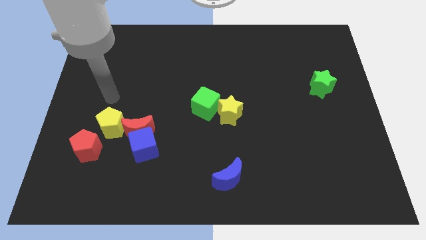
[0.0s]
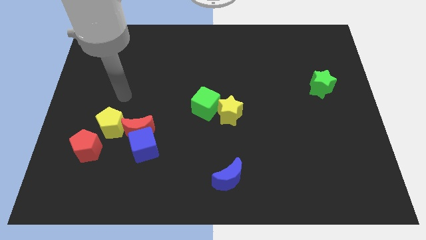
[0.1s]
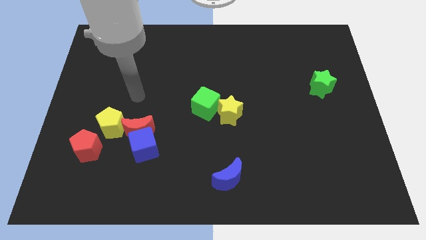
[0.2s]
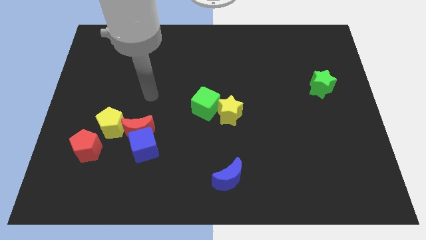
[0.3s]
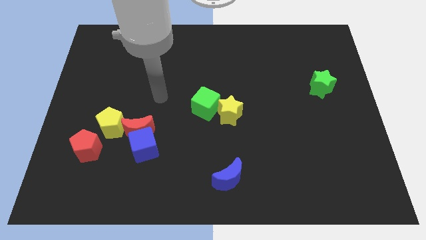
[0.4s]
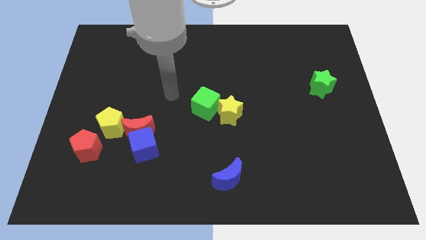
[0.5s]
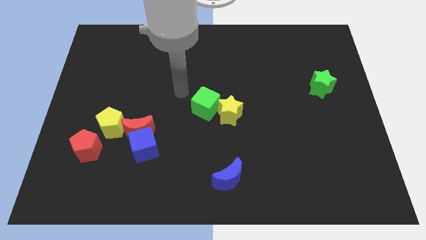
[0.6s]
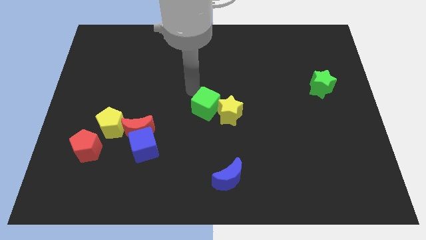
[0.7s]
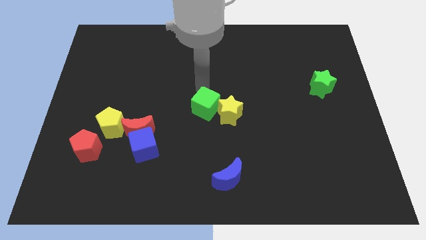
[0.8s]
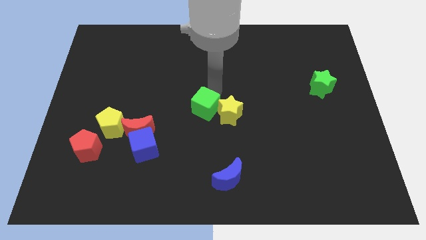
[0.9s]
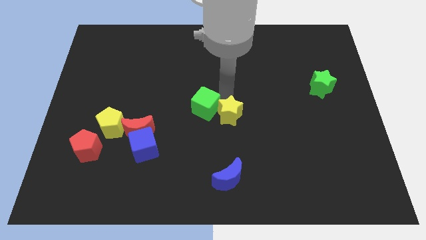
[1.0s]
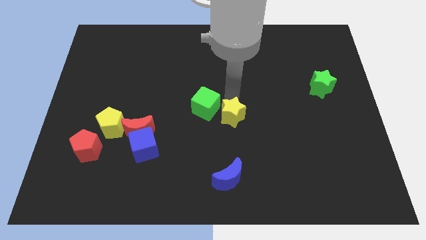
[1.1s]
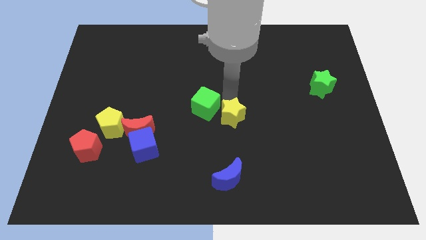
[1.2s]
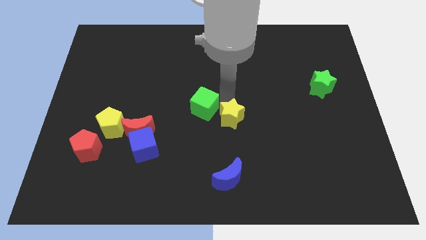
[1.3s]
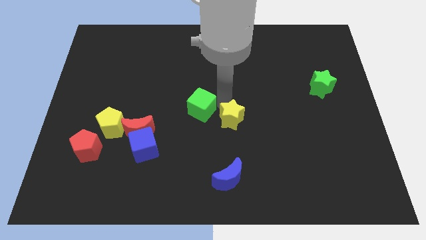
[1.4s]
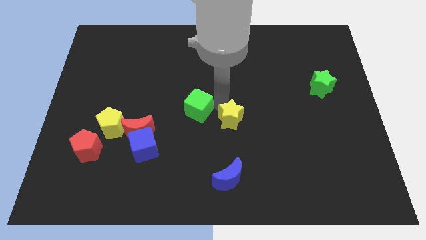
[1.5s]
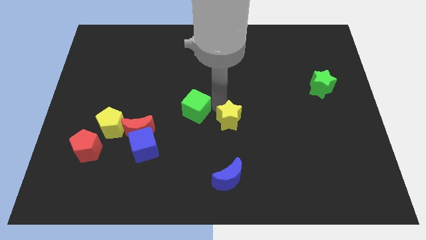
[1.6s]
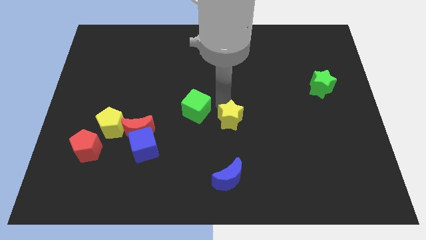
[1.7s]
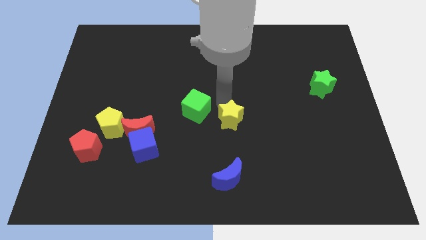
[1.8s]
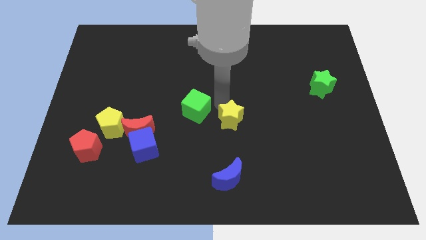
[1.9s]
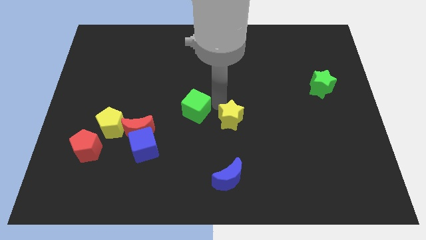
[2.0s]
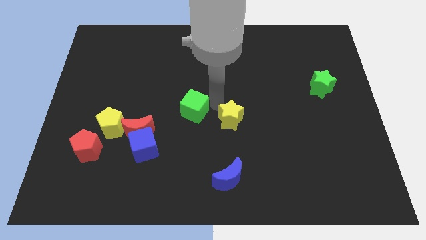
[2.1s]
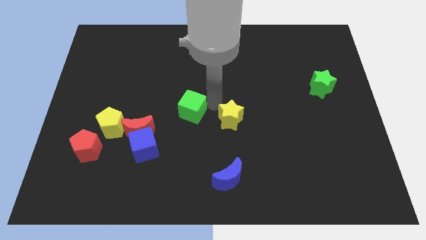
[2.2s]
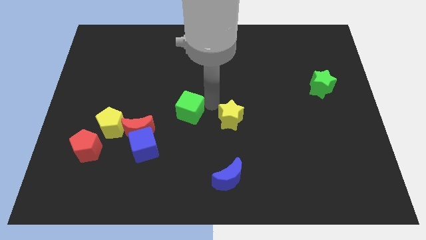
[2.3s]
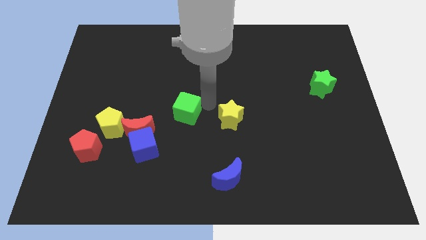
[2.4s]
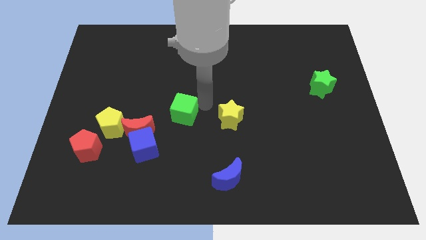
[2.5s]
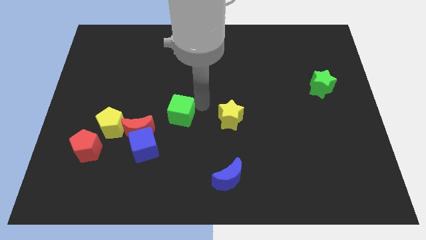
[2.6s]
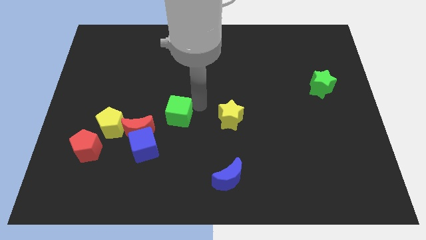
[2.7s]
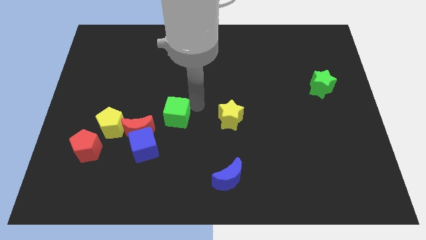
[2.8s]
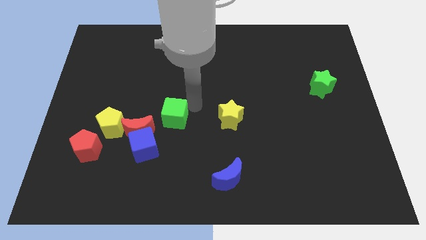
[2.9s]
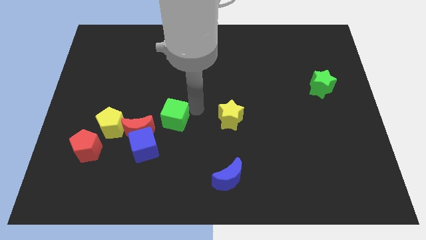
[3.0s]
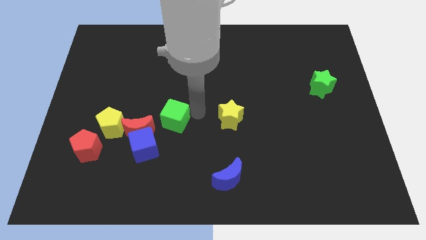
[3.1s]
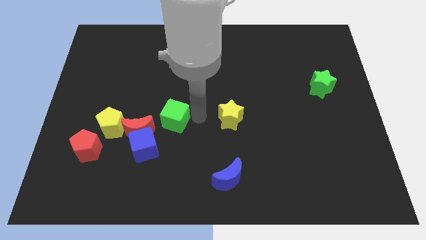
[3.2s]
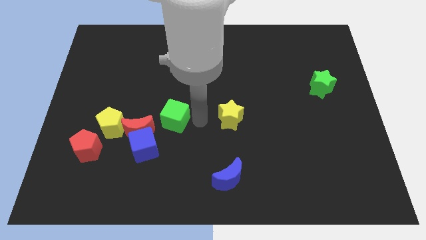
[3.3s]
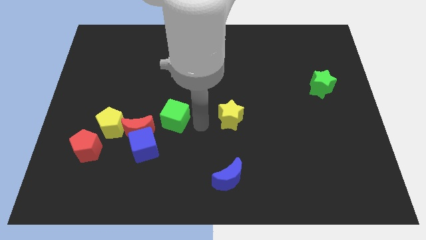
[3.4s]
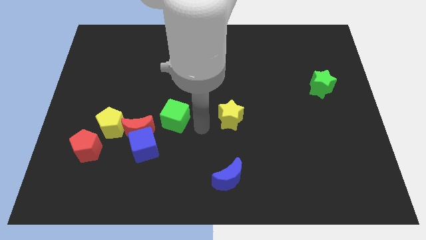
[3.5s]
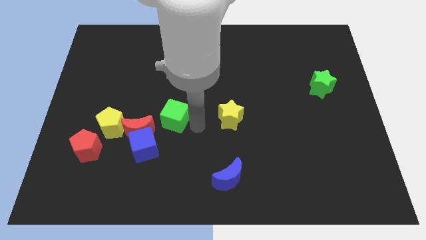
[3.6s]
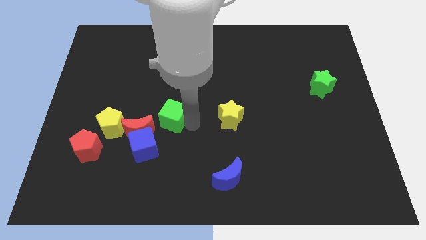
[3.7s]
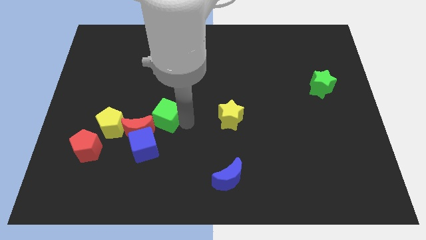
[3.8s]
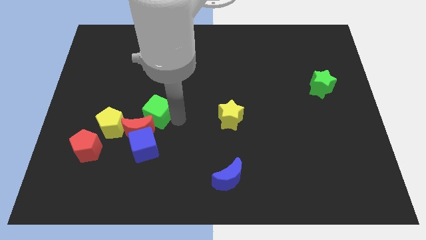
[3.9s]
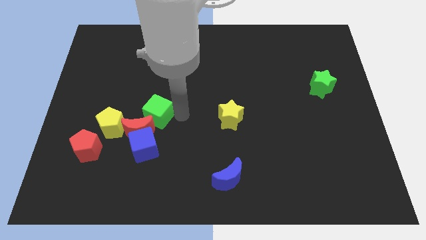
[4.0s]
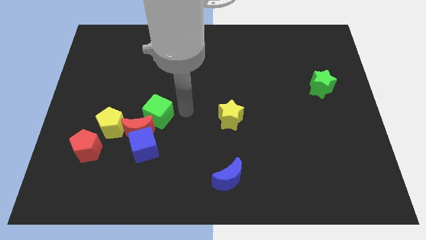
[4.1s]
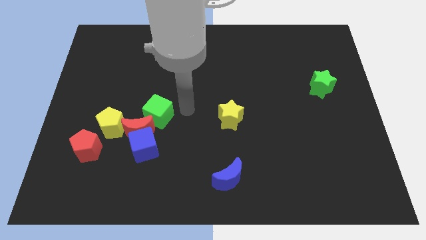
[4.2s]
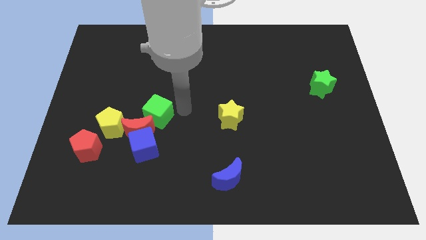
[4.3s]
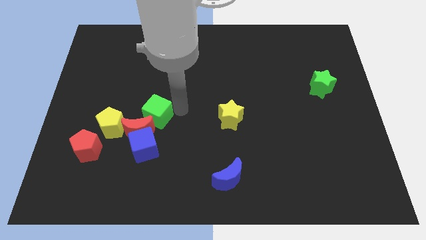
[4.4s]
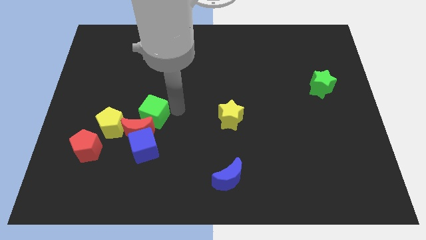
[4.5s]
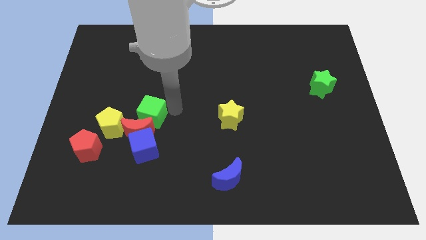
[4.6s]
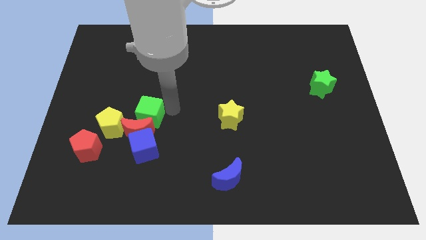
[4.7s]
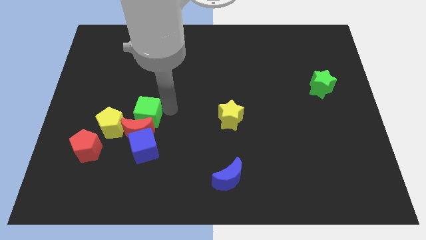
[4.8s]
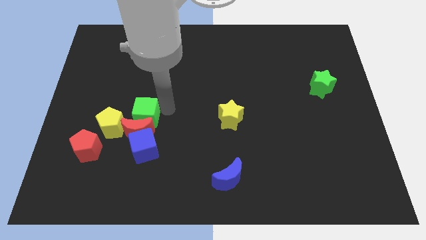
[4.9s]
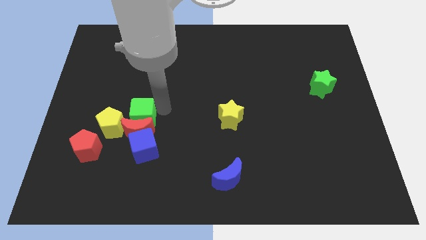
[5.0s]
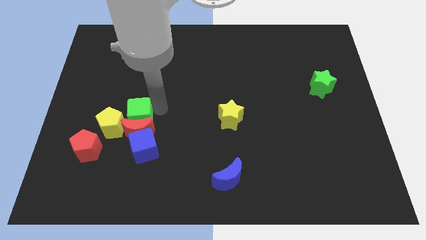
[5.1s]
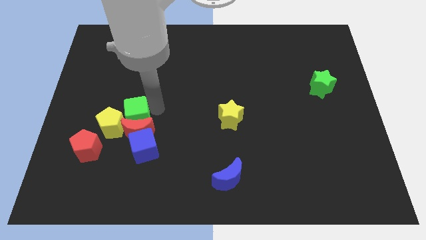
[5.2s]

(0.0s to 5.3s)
move the green cube towards the yellow pentagon

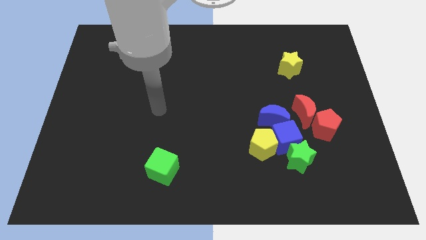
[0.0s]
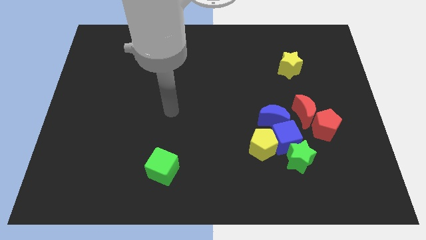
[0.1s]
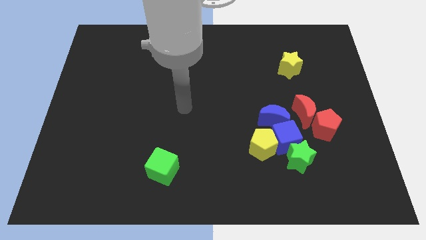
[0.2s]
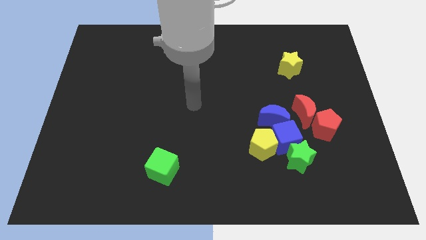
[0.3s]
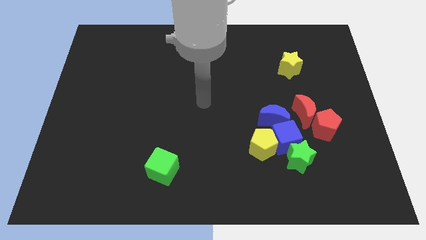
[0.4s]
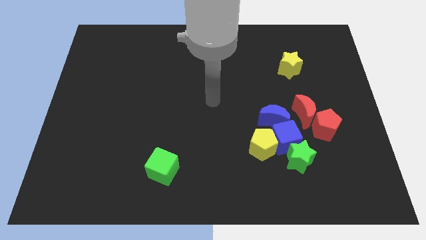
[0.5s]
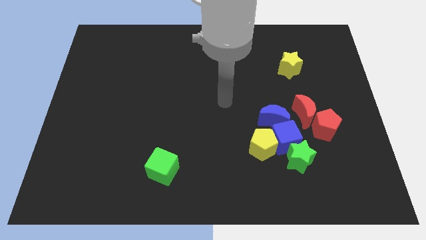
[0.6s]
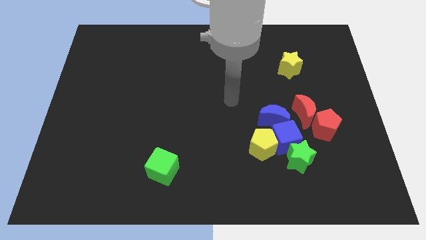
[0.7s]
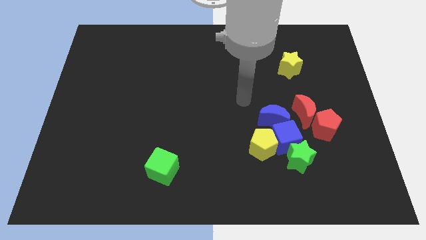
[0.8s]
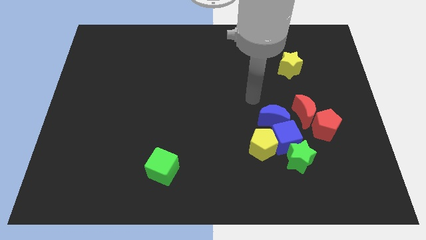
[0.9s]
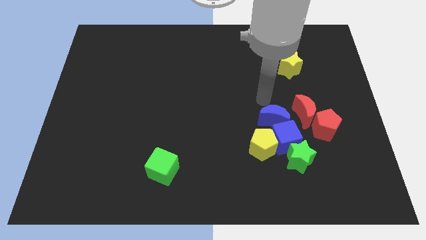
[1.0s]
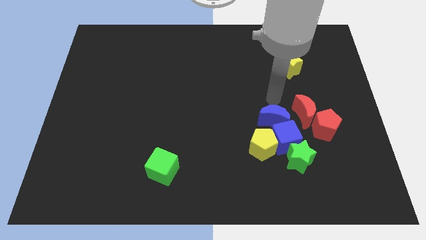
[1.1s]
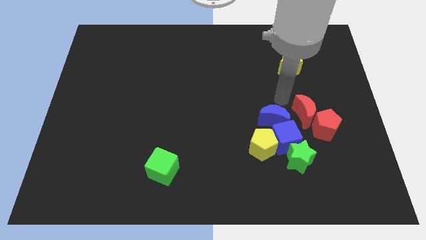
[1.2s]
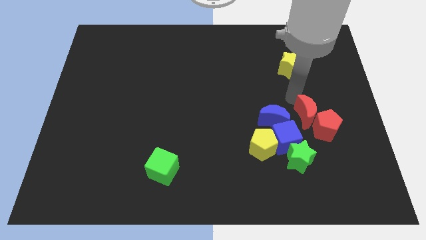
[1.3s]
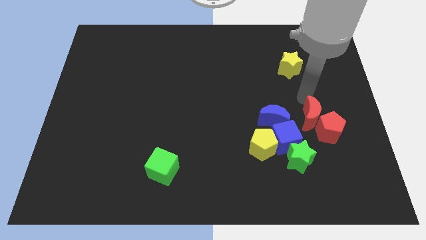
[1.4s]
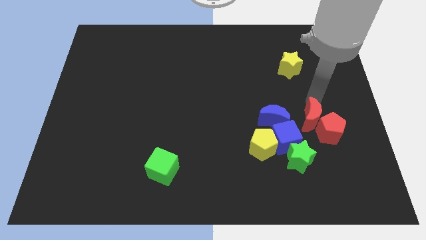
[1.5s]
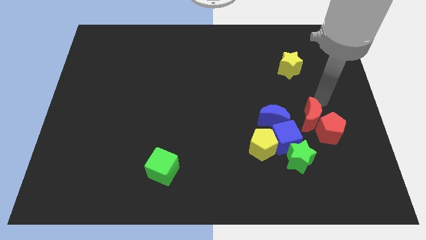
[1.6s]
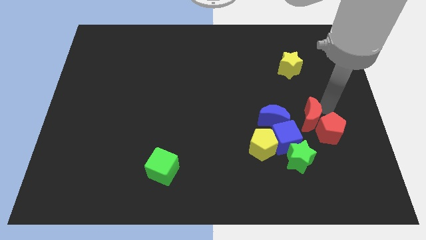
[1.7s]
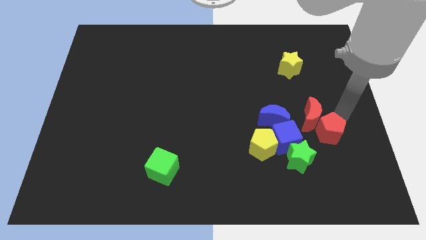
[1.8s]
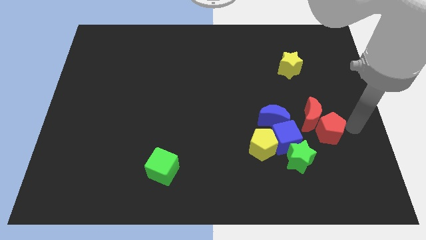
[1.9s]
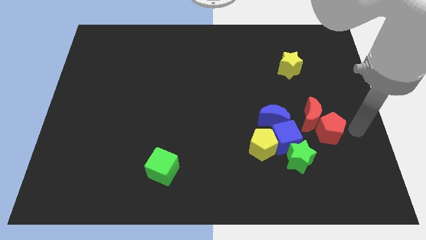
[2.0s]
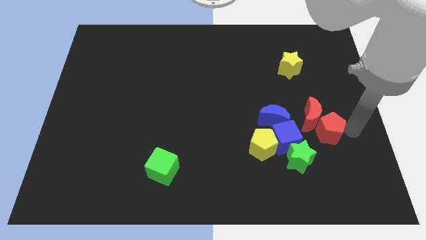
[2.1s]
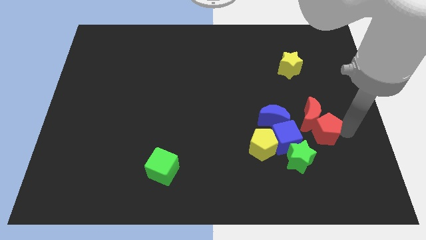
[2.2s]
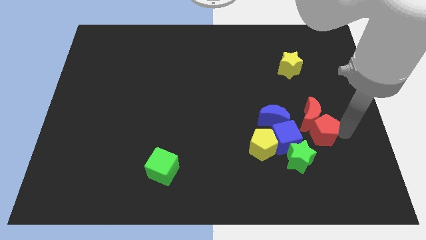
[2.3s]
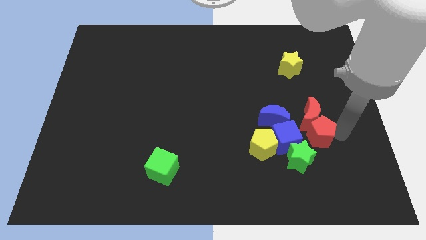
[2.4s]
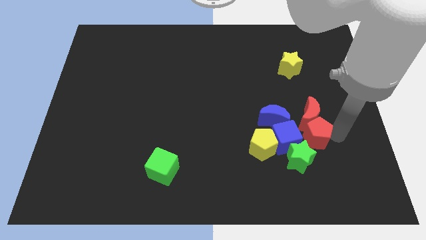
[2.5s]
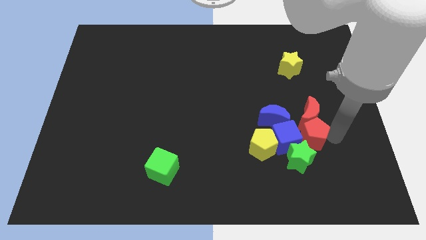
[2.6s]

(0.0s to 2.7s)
push the red pentagon close to the blue cube
